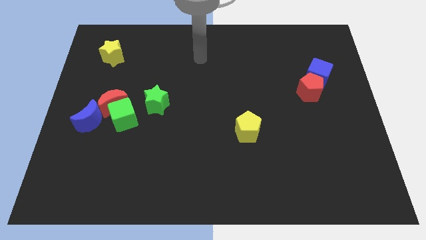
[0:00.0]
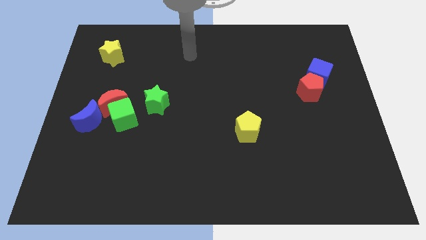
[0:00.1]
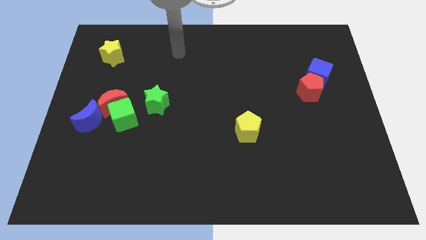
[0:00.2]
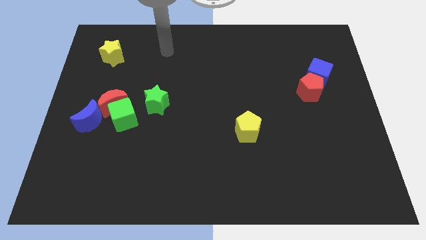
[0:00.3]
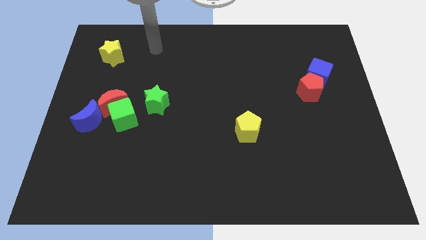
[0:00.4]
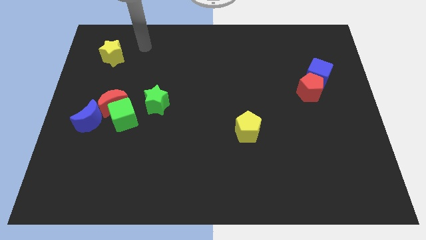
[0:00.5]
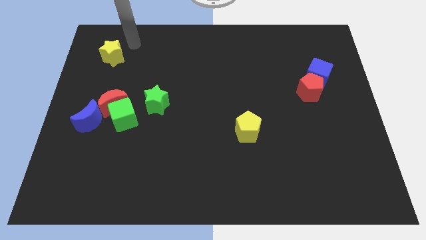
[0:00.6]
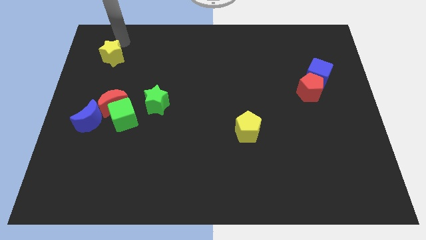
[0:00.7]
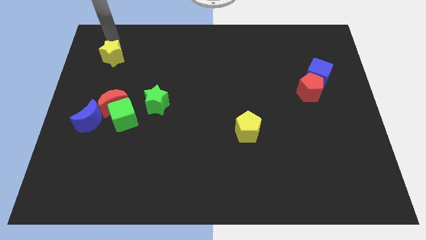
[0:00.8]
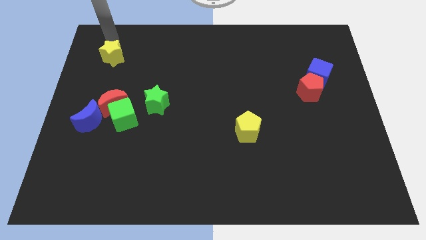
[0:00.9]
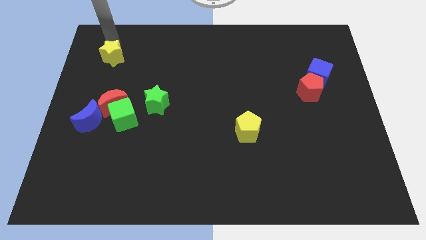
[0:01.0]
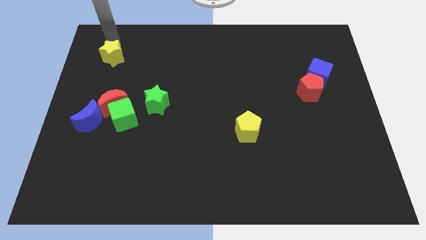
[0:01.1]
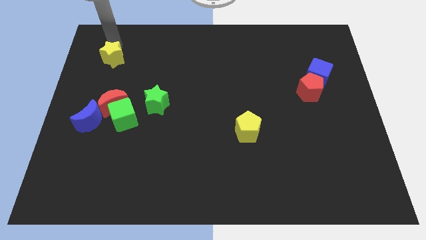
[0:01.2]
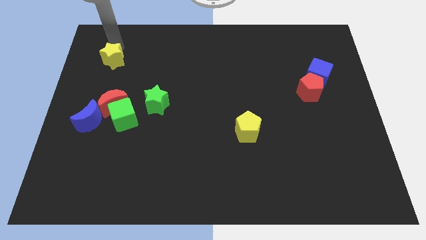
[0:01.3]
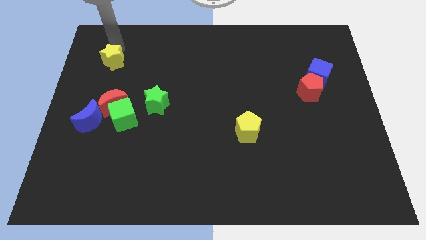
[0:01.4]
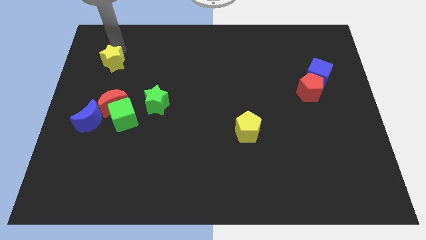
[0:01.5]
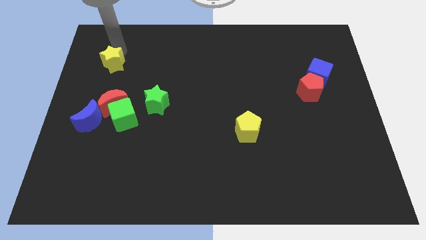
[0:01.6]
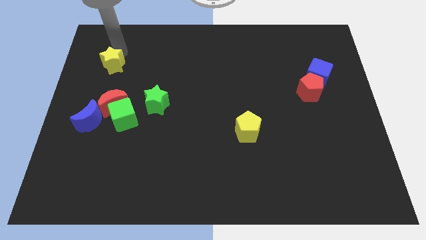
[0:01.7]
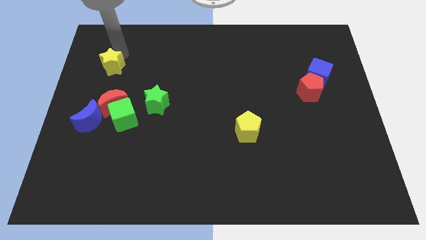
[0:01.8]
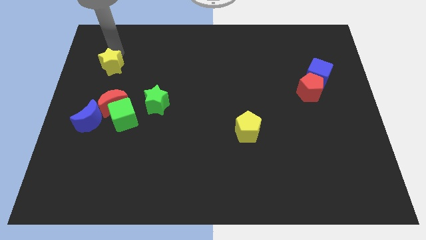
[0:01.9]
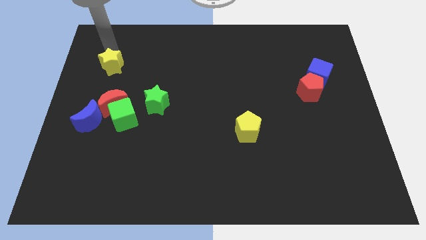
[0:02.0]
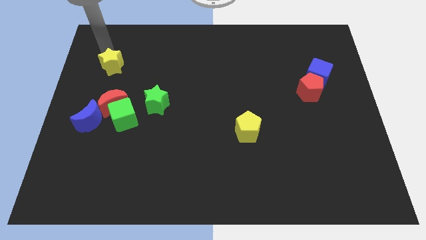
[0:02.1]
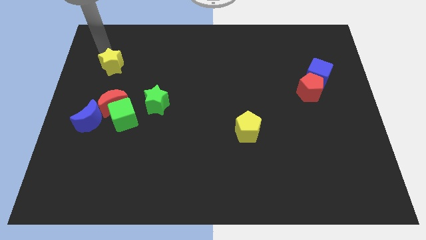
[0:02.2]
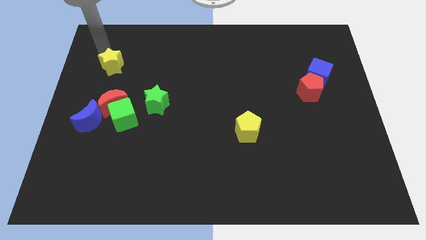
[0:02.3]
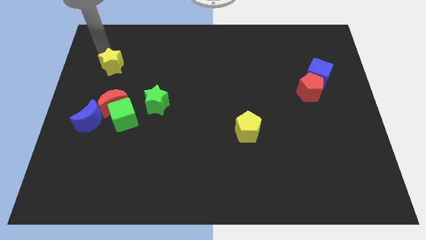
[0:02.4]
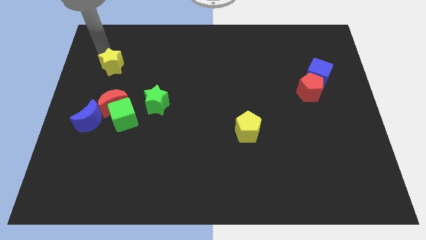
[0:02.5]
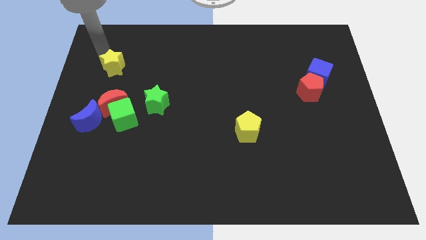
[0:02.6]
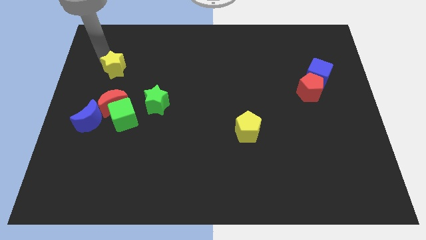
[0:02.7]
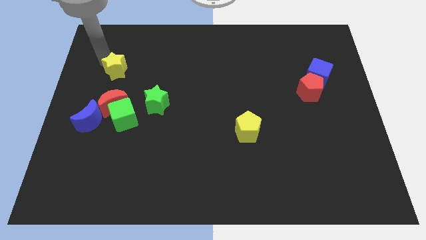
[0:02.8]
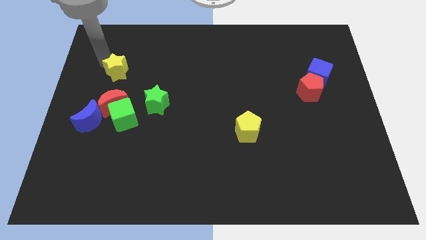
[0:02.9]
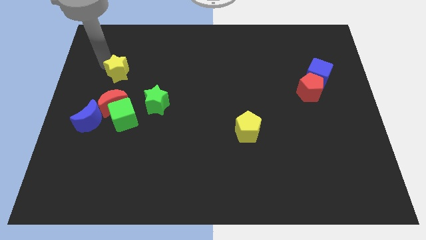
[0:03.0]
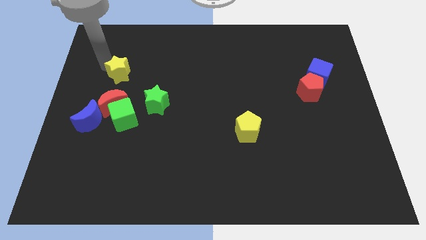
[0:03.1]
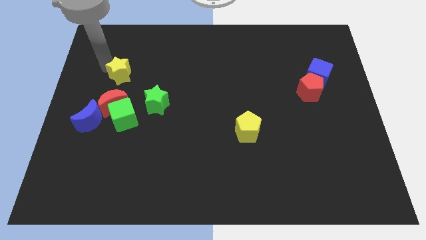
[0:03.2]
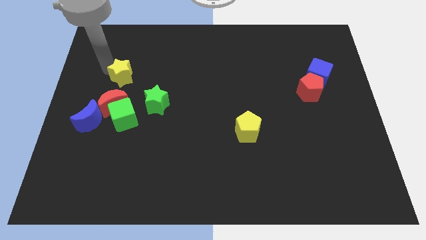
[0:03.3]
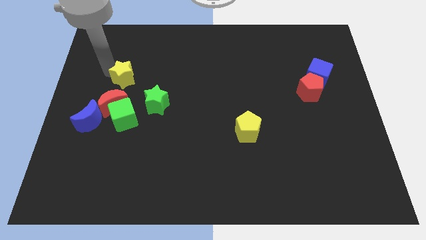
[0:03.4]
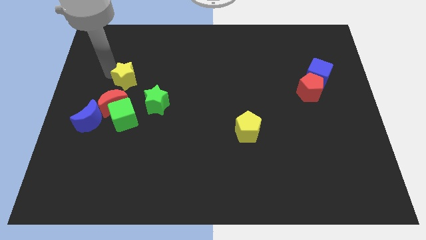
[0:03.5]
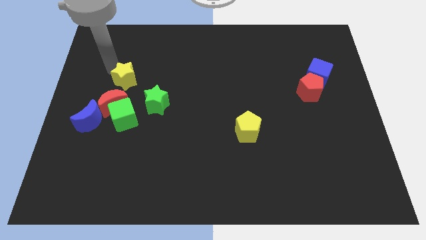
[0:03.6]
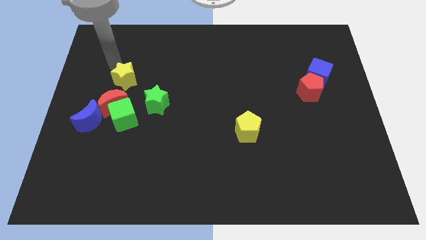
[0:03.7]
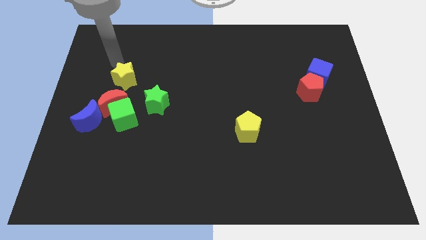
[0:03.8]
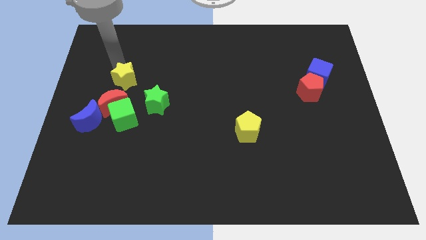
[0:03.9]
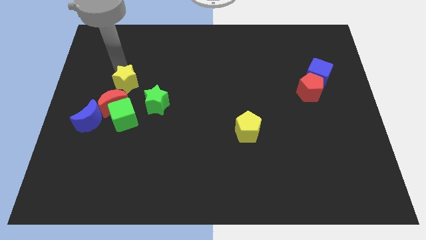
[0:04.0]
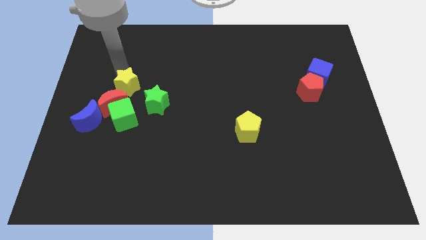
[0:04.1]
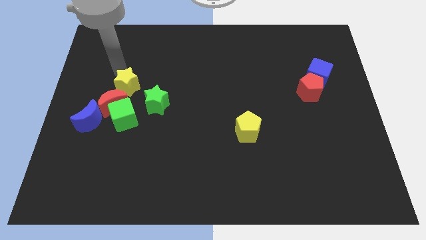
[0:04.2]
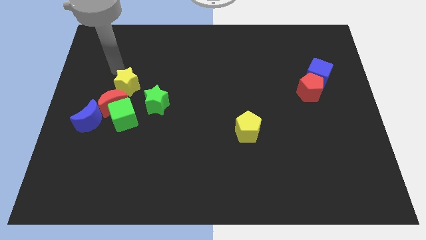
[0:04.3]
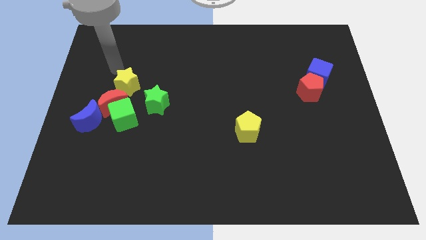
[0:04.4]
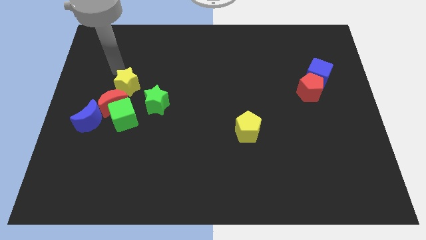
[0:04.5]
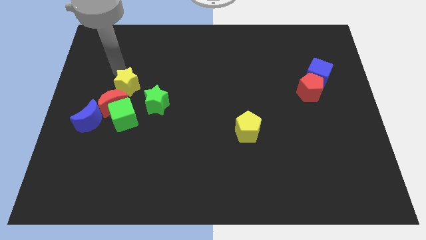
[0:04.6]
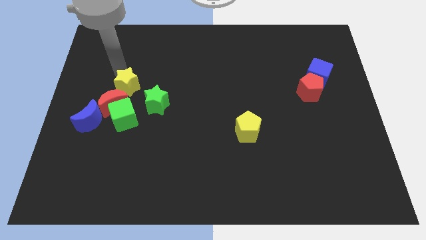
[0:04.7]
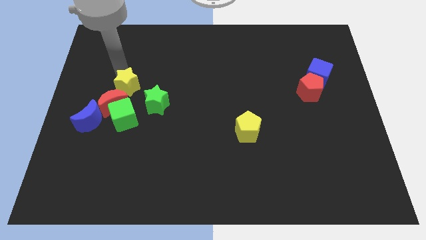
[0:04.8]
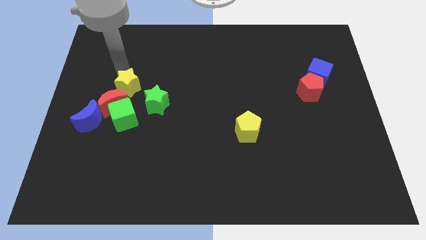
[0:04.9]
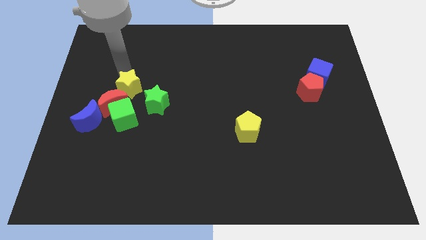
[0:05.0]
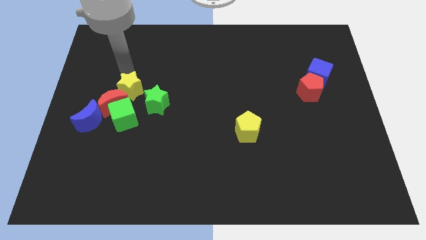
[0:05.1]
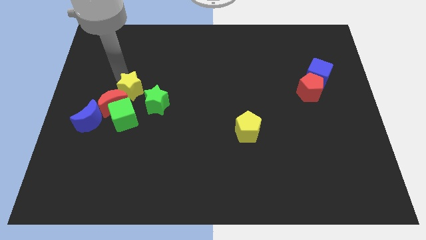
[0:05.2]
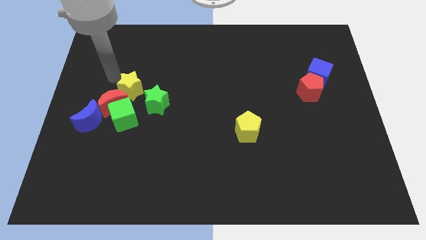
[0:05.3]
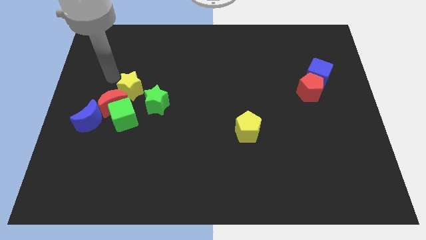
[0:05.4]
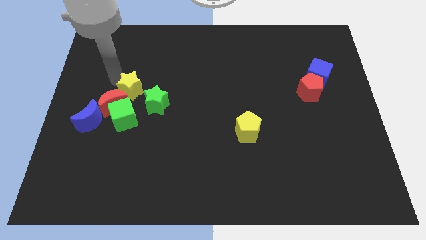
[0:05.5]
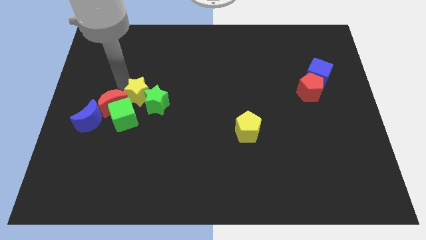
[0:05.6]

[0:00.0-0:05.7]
move the yellow star towards the green star

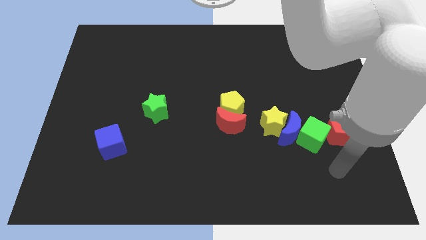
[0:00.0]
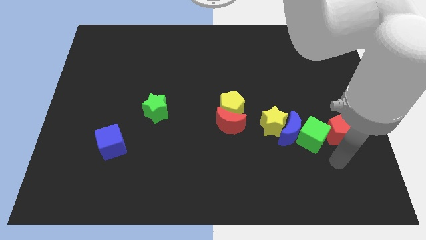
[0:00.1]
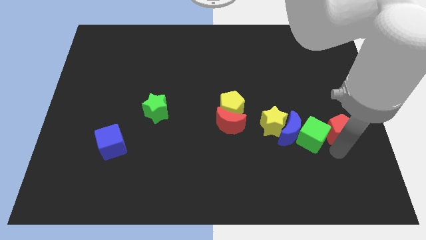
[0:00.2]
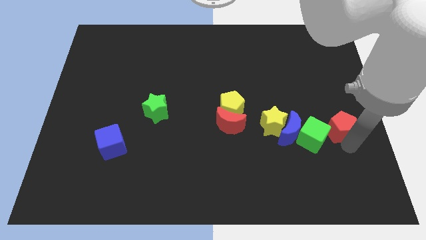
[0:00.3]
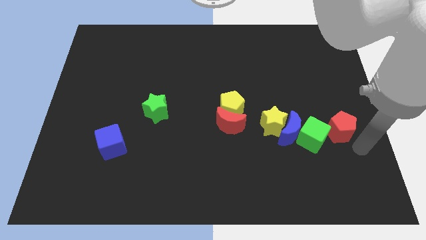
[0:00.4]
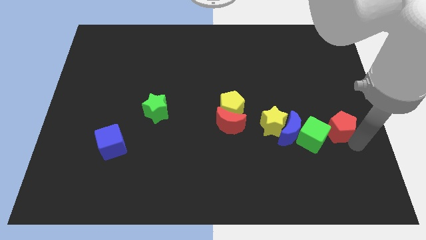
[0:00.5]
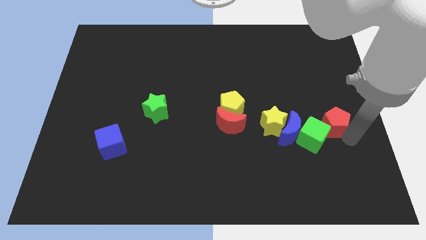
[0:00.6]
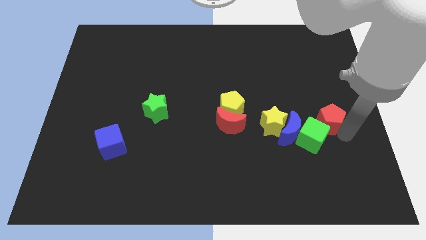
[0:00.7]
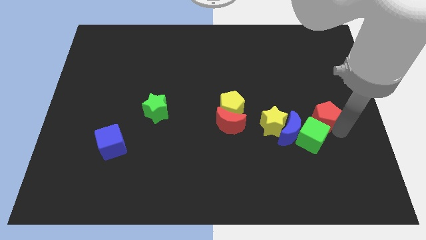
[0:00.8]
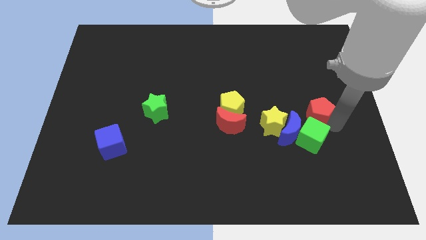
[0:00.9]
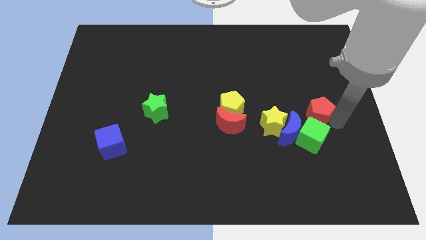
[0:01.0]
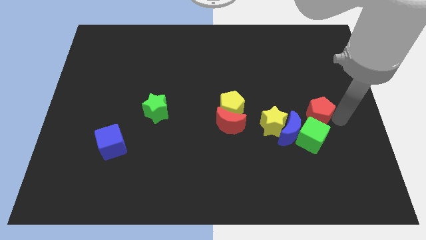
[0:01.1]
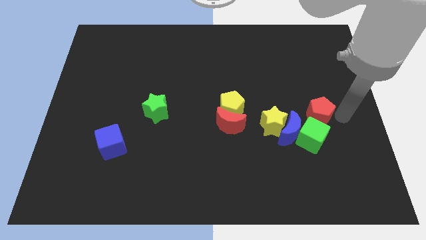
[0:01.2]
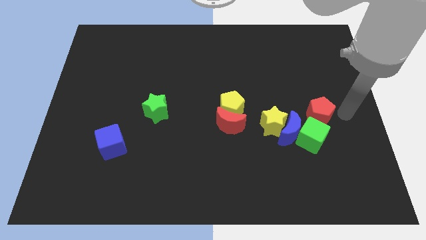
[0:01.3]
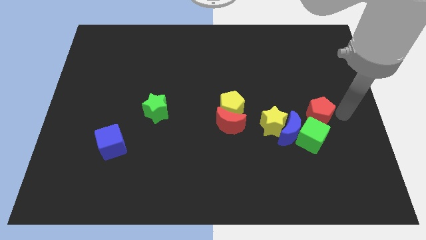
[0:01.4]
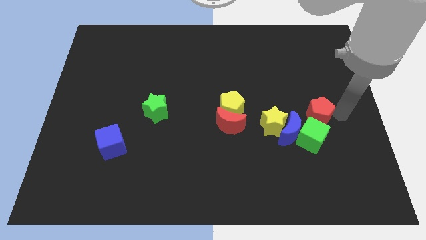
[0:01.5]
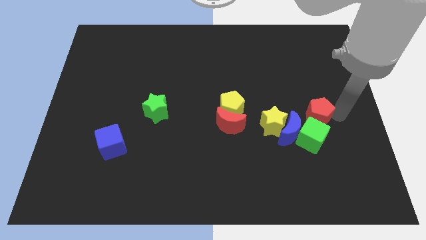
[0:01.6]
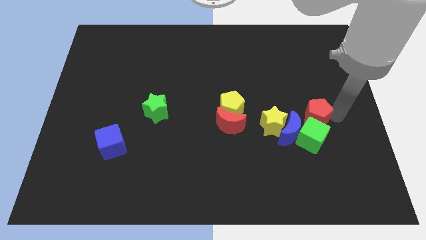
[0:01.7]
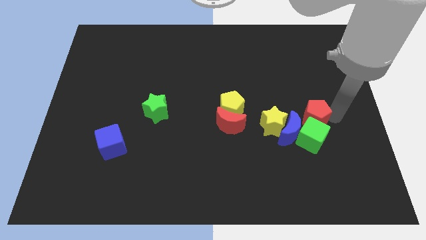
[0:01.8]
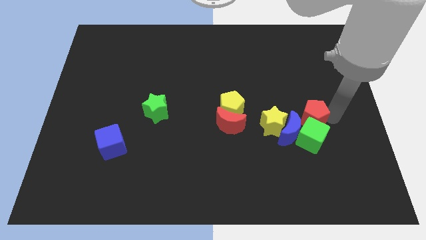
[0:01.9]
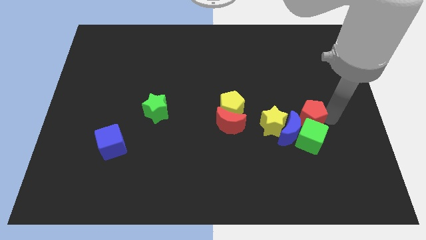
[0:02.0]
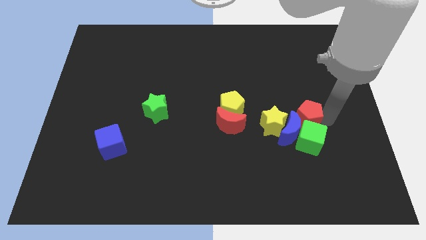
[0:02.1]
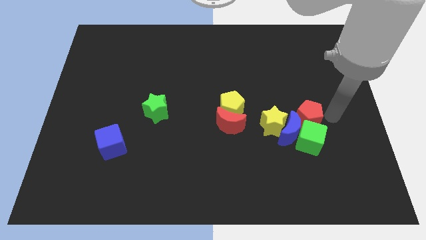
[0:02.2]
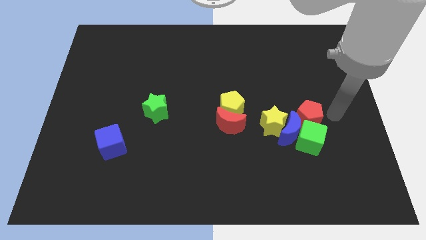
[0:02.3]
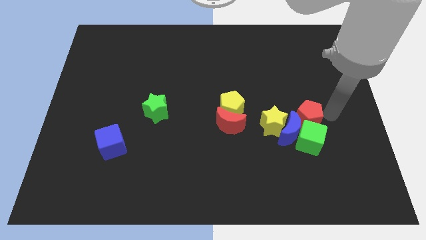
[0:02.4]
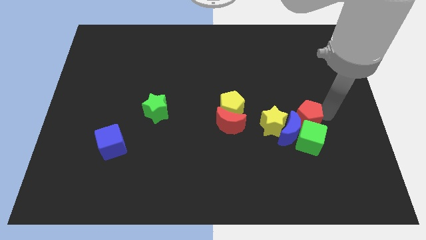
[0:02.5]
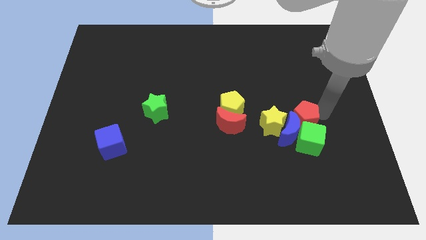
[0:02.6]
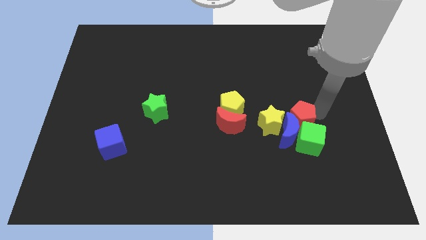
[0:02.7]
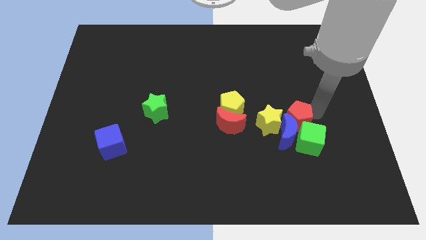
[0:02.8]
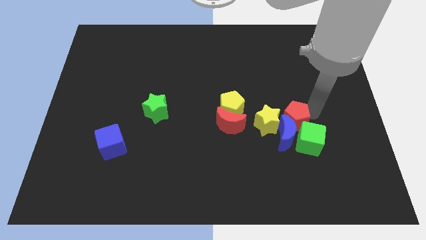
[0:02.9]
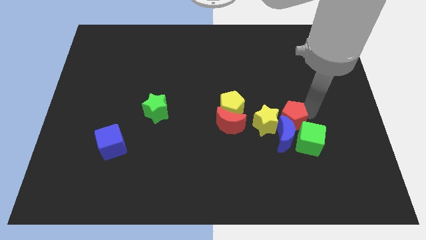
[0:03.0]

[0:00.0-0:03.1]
put the red pentagon towards the yellow star
